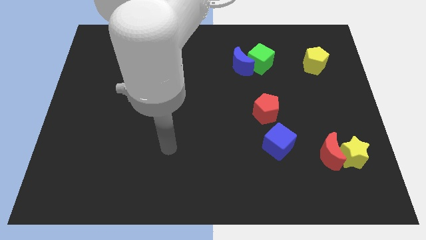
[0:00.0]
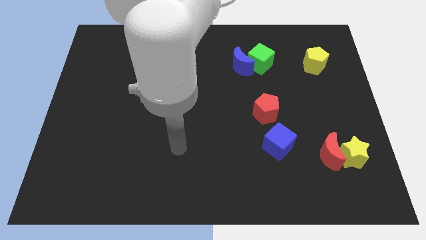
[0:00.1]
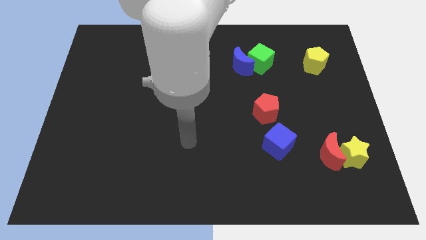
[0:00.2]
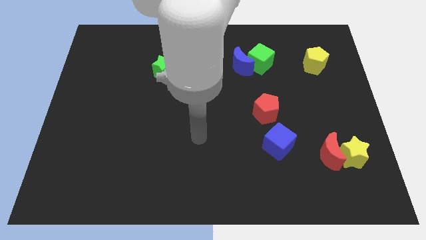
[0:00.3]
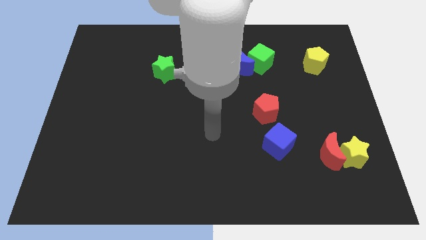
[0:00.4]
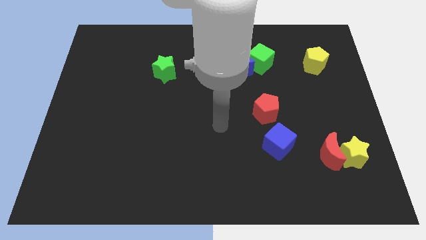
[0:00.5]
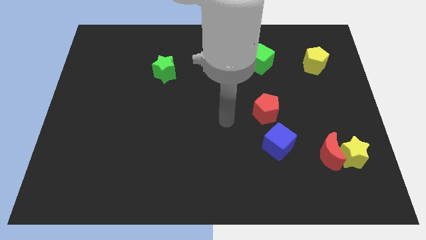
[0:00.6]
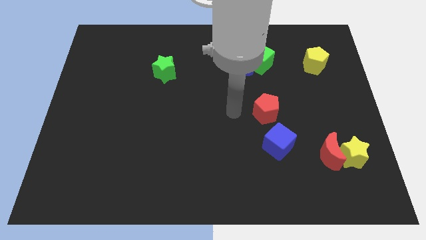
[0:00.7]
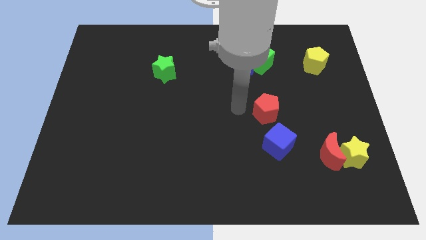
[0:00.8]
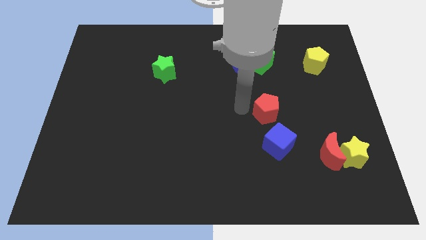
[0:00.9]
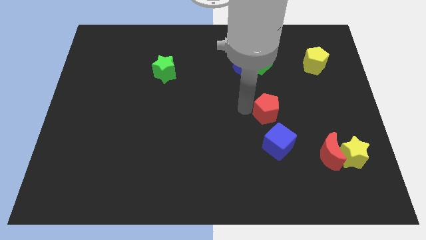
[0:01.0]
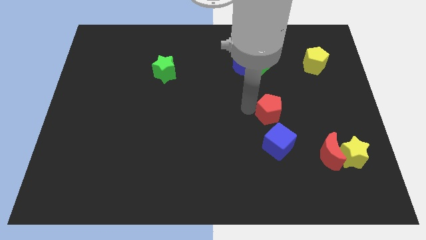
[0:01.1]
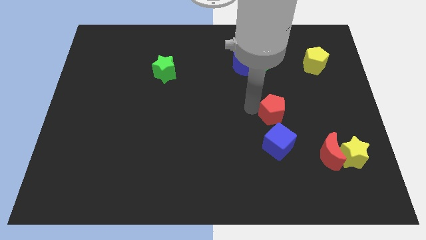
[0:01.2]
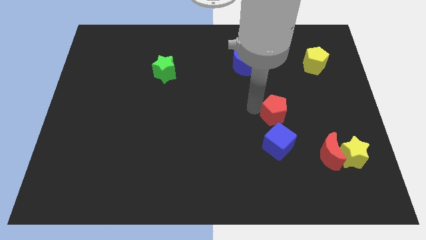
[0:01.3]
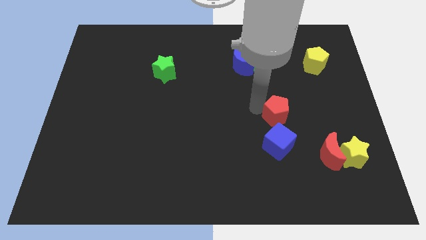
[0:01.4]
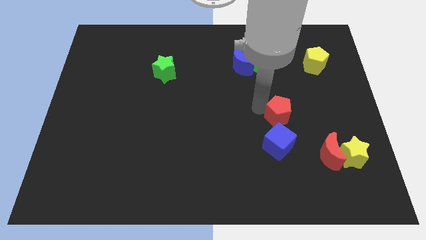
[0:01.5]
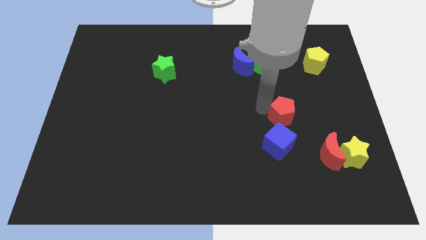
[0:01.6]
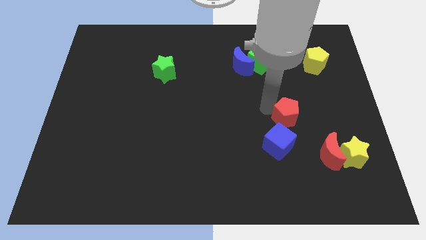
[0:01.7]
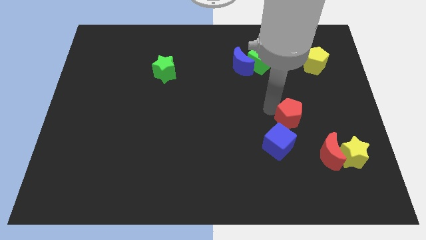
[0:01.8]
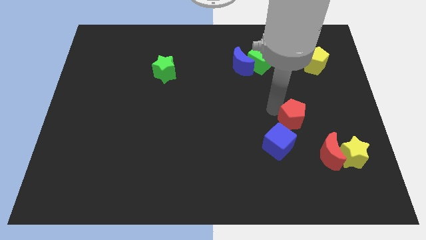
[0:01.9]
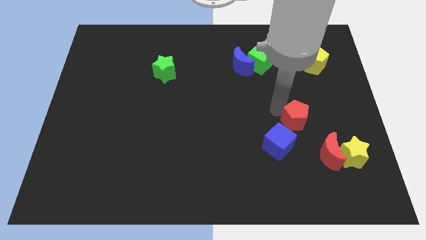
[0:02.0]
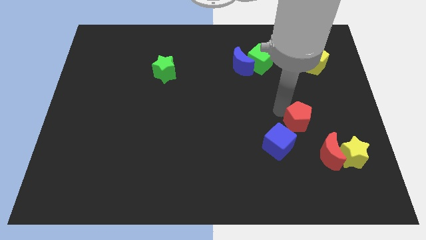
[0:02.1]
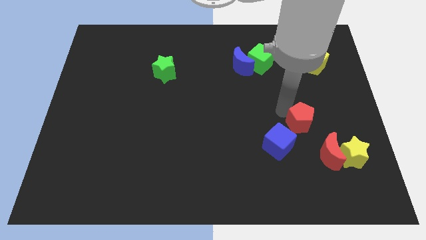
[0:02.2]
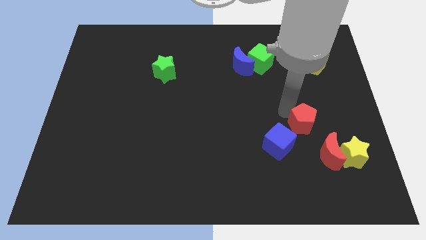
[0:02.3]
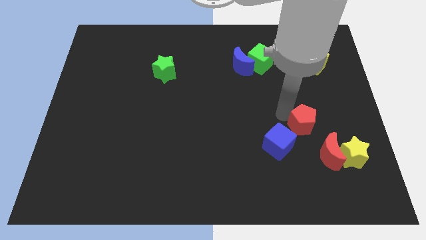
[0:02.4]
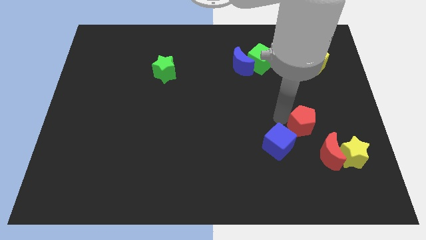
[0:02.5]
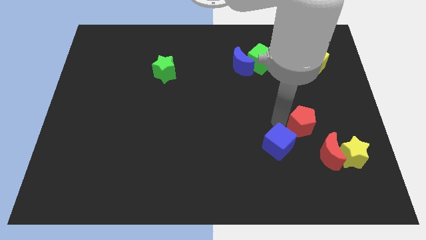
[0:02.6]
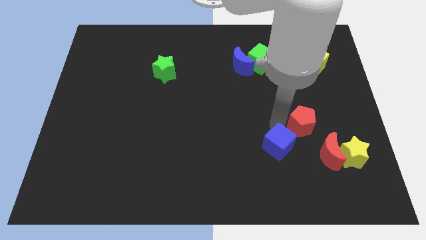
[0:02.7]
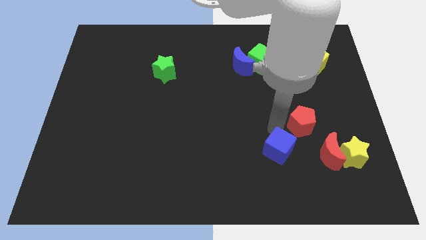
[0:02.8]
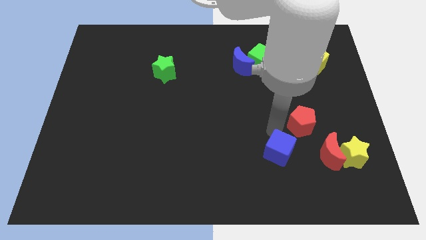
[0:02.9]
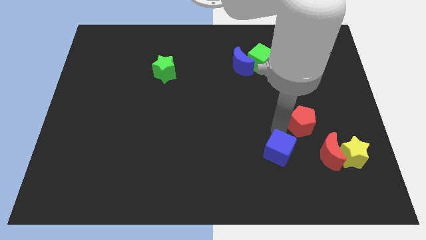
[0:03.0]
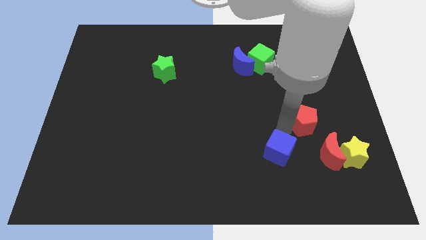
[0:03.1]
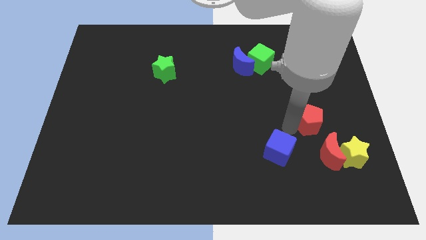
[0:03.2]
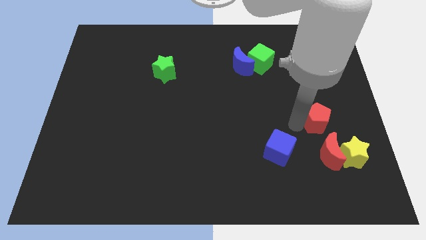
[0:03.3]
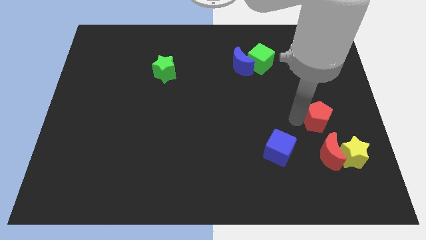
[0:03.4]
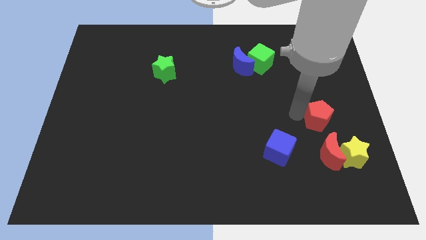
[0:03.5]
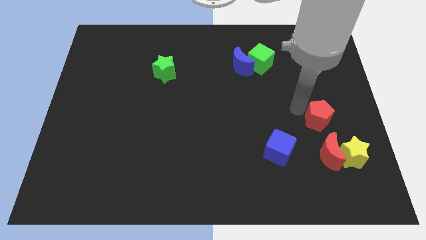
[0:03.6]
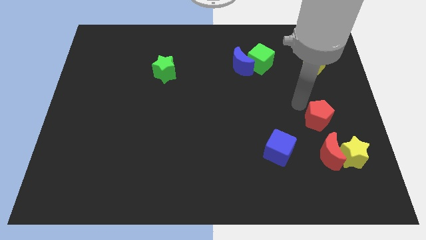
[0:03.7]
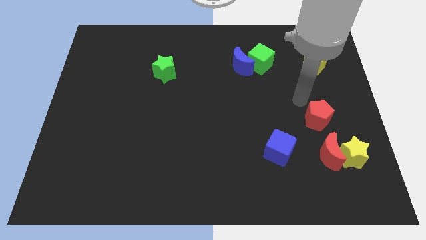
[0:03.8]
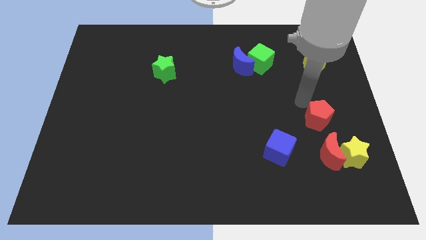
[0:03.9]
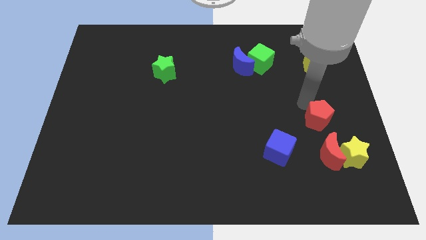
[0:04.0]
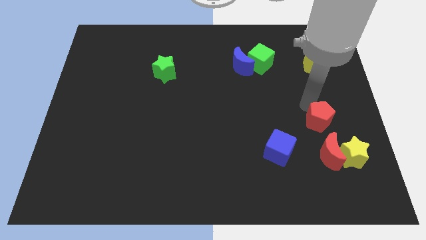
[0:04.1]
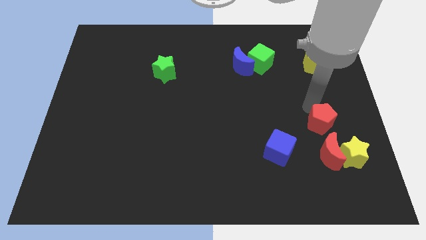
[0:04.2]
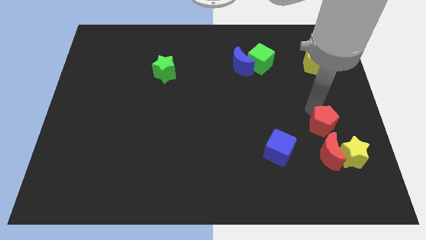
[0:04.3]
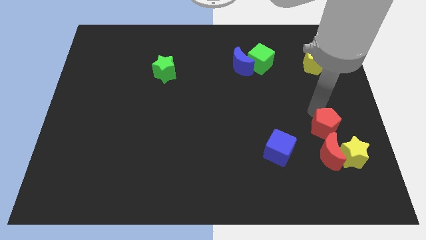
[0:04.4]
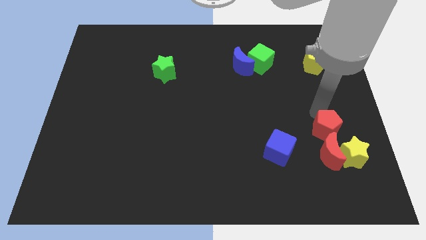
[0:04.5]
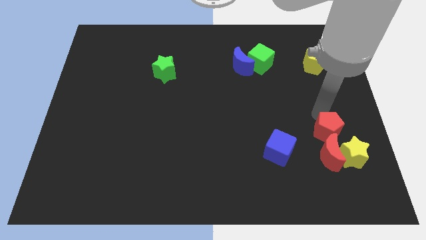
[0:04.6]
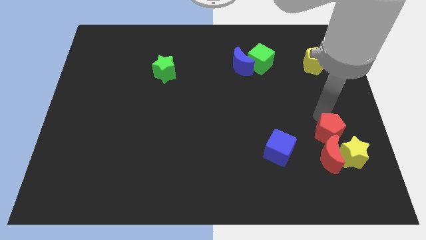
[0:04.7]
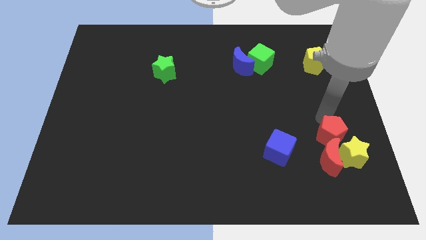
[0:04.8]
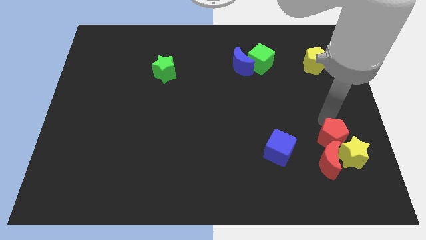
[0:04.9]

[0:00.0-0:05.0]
move the red pentagon towards the yellow star

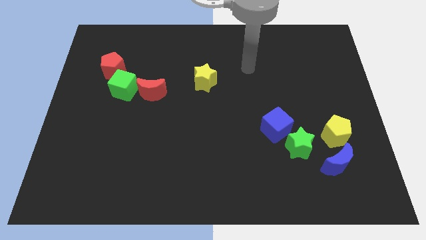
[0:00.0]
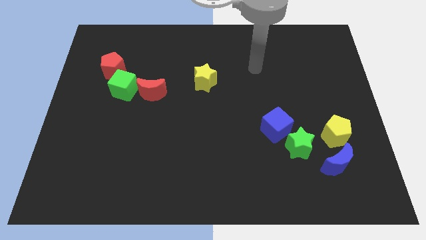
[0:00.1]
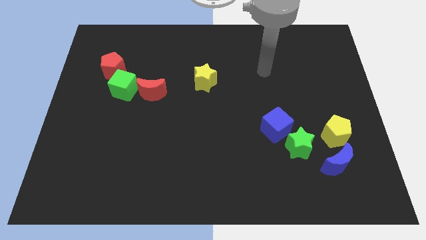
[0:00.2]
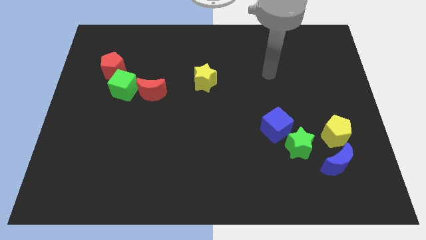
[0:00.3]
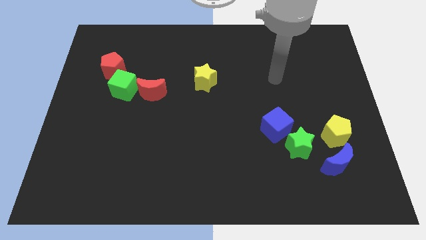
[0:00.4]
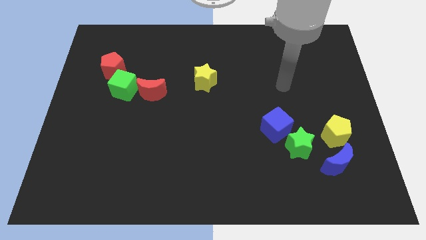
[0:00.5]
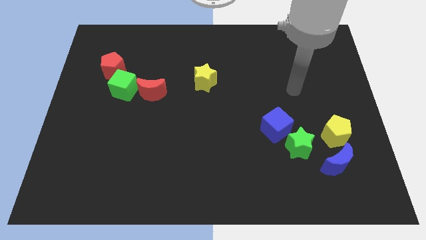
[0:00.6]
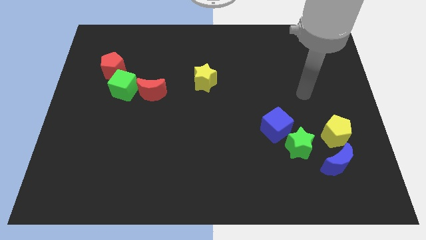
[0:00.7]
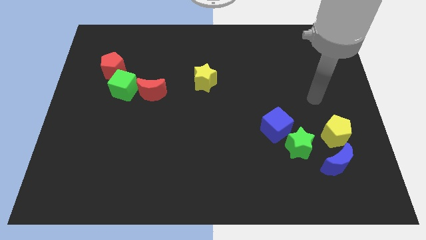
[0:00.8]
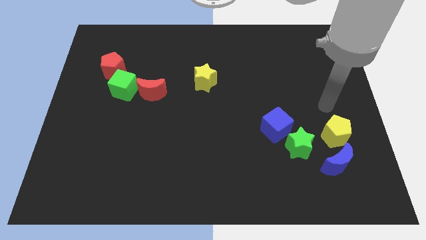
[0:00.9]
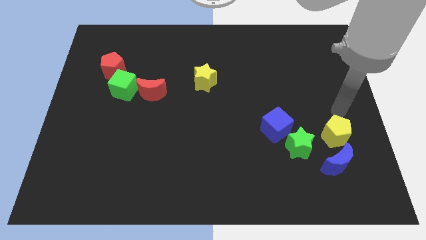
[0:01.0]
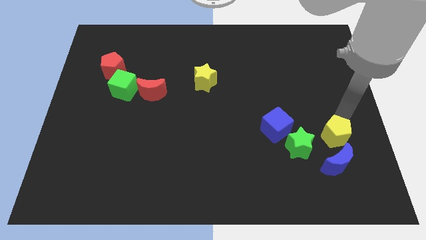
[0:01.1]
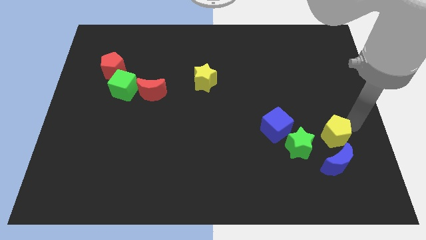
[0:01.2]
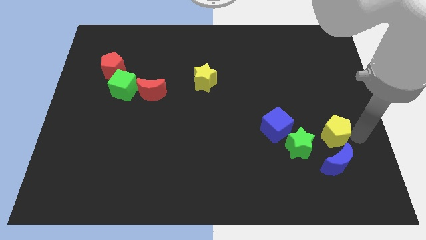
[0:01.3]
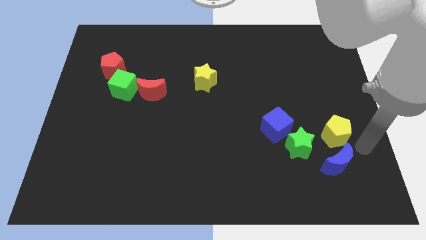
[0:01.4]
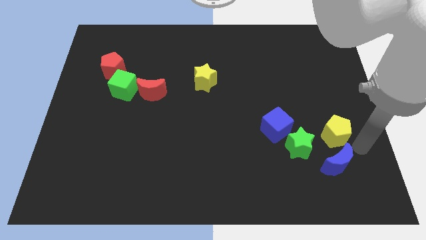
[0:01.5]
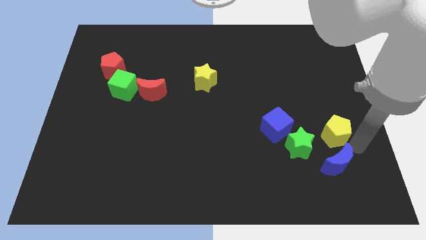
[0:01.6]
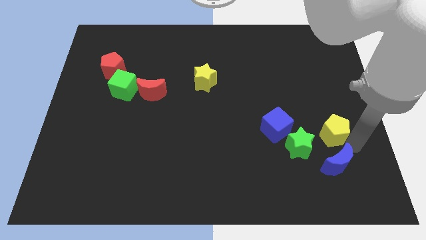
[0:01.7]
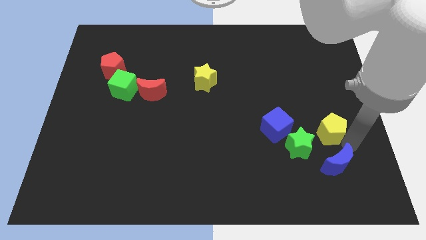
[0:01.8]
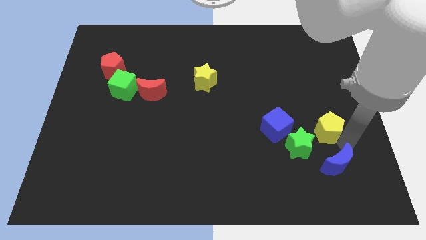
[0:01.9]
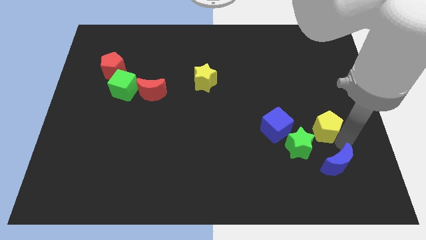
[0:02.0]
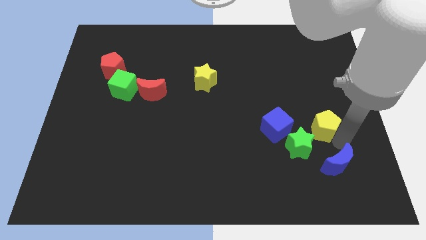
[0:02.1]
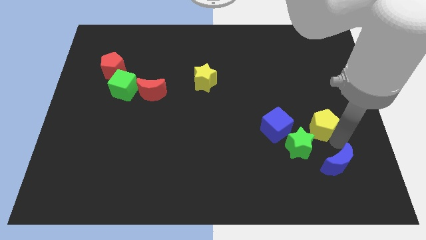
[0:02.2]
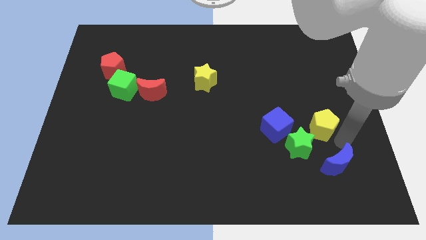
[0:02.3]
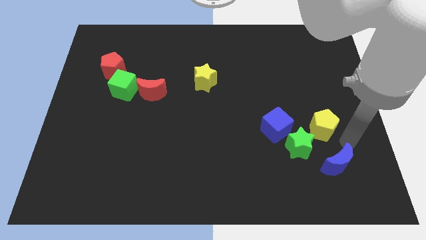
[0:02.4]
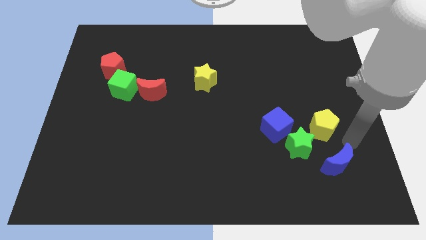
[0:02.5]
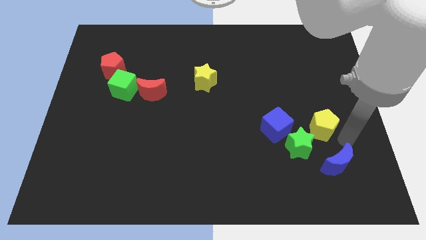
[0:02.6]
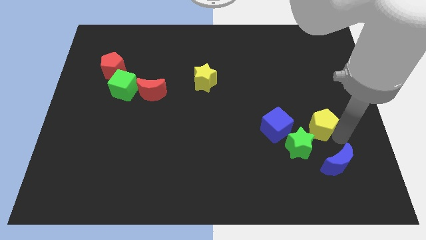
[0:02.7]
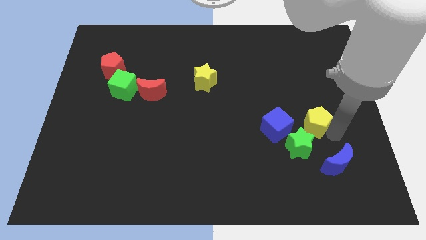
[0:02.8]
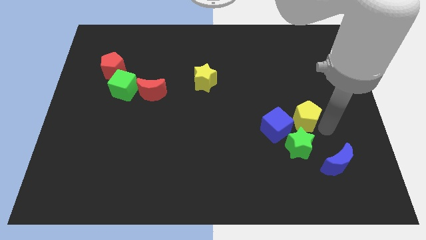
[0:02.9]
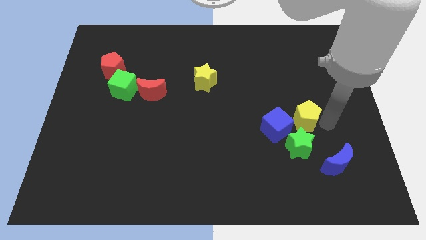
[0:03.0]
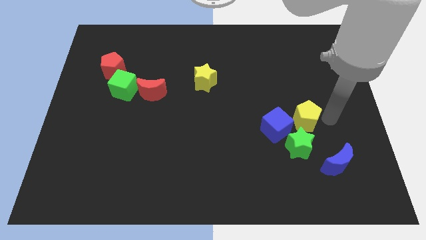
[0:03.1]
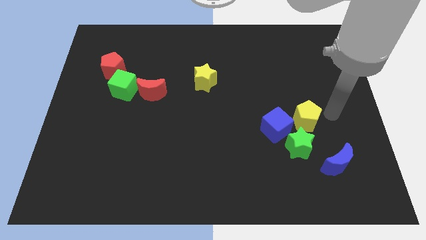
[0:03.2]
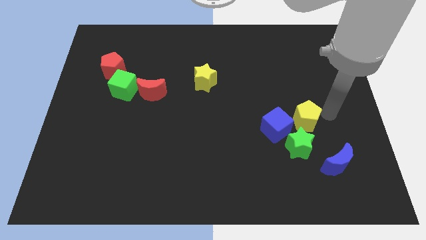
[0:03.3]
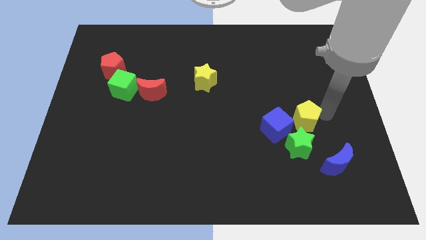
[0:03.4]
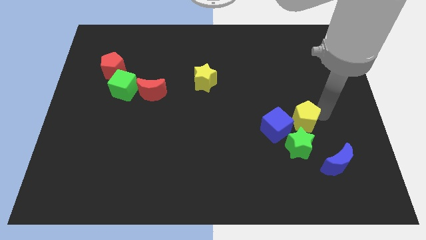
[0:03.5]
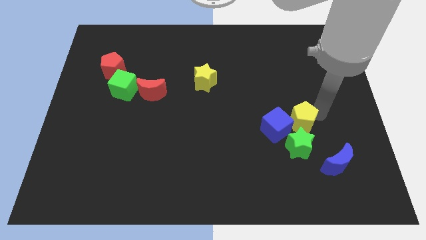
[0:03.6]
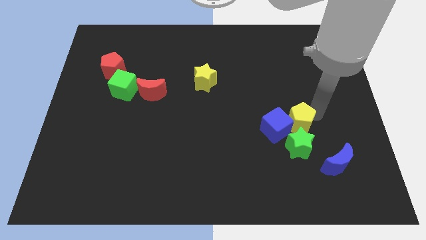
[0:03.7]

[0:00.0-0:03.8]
move the yellow pentagon towards the blue cube
